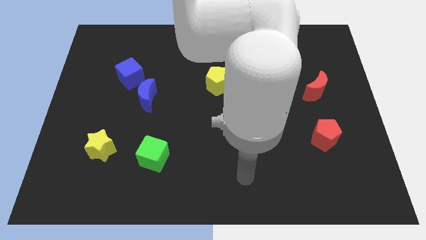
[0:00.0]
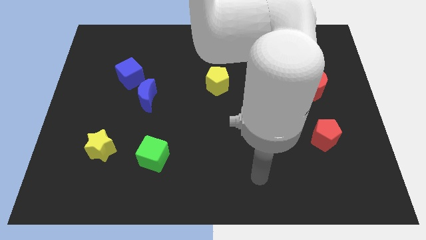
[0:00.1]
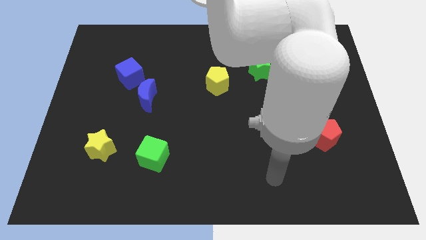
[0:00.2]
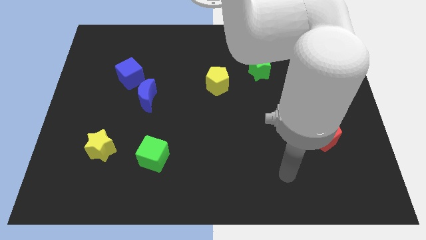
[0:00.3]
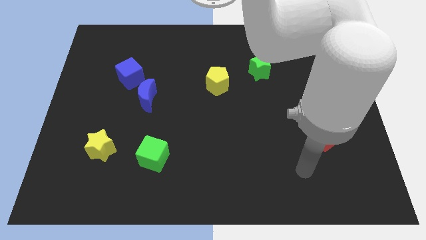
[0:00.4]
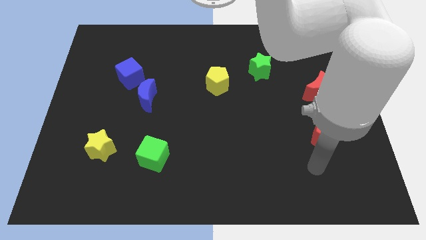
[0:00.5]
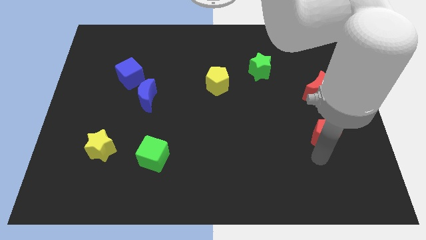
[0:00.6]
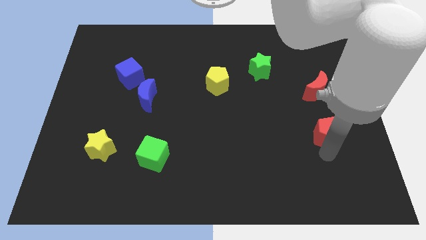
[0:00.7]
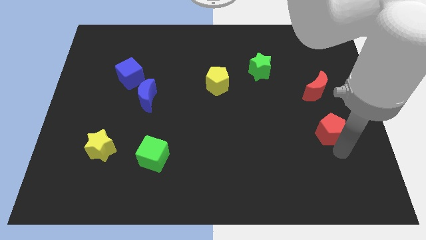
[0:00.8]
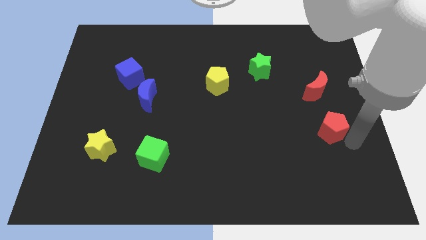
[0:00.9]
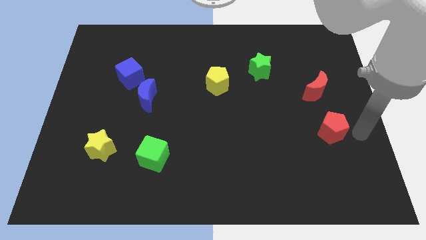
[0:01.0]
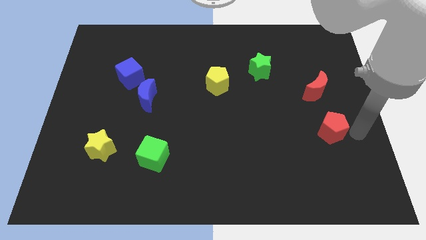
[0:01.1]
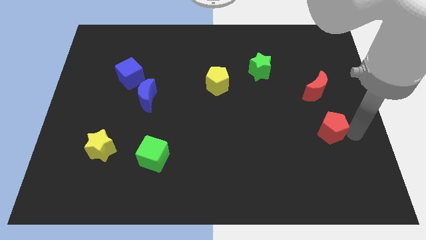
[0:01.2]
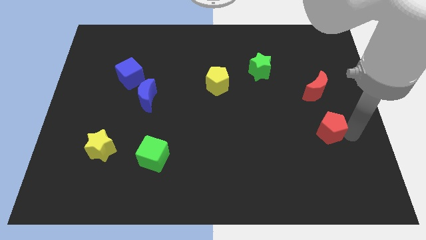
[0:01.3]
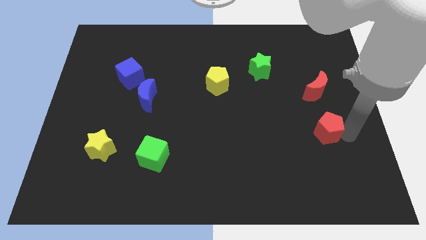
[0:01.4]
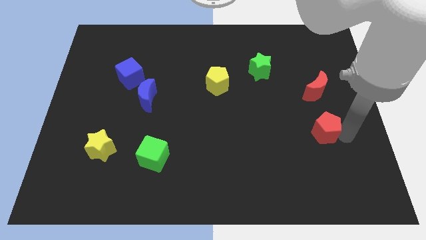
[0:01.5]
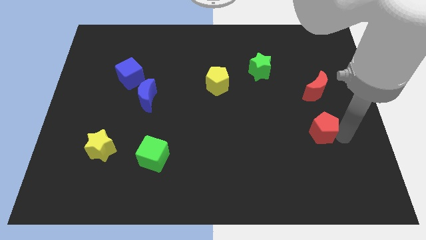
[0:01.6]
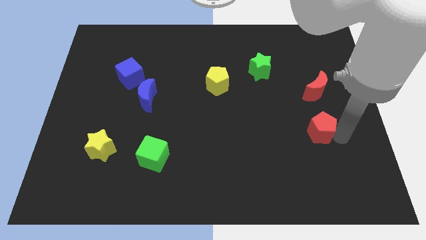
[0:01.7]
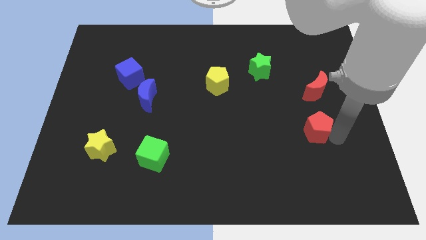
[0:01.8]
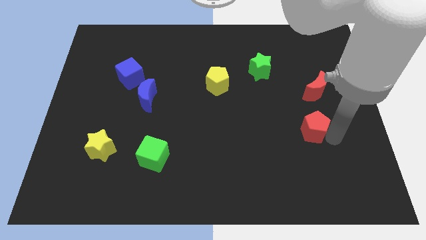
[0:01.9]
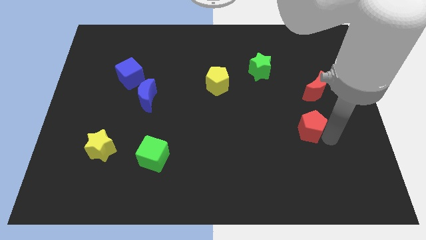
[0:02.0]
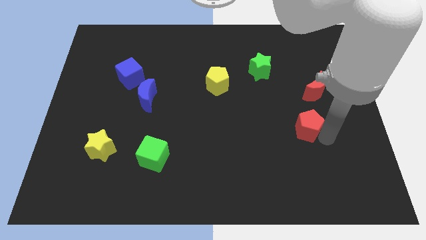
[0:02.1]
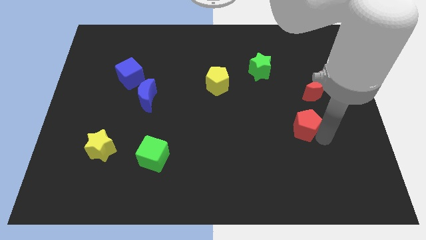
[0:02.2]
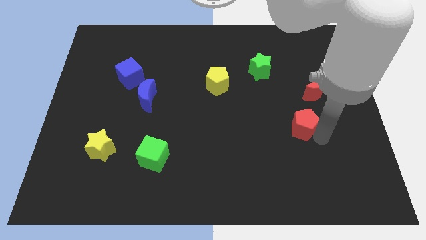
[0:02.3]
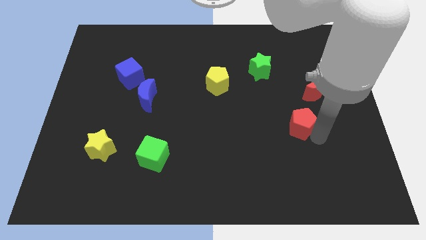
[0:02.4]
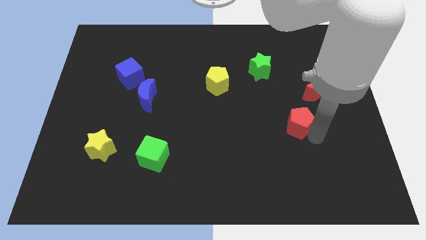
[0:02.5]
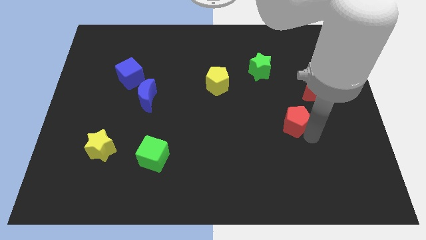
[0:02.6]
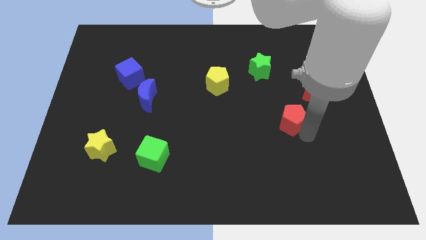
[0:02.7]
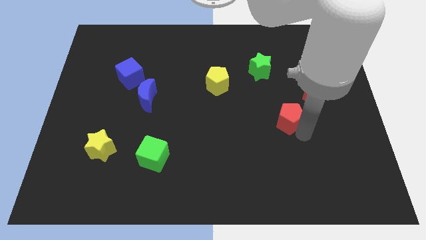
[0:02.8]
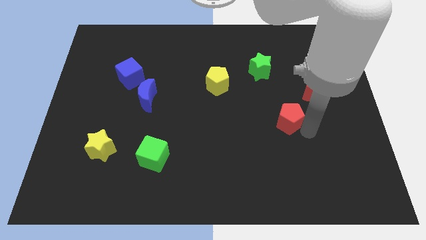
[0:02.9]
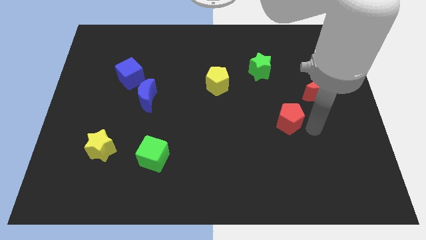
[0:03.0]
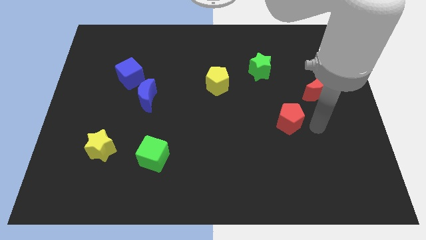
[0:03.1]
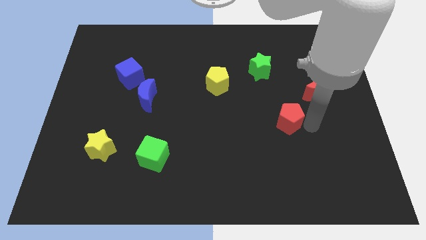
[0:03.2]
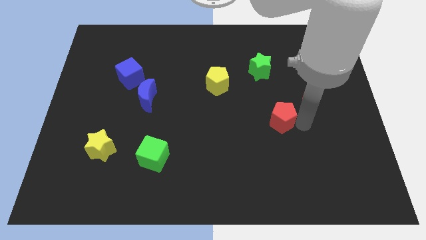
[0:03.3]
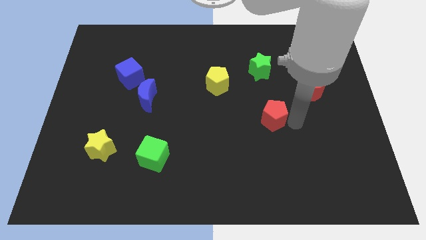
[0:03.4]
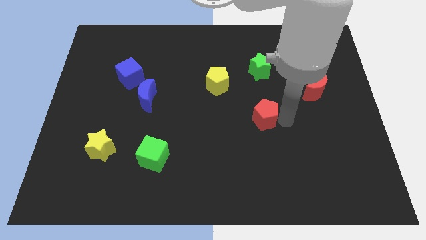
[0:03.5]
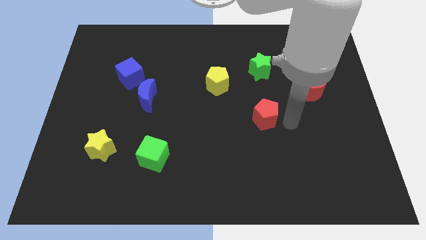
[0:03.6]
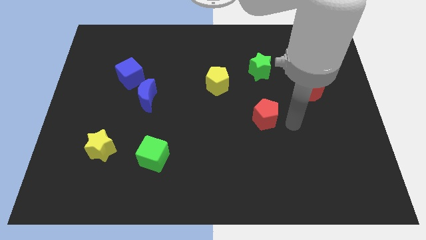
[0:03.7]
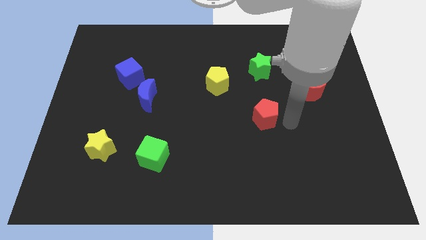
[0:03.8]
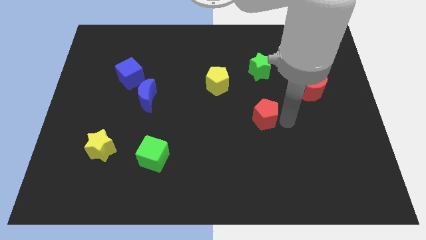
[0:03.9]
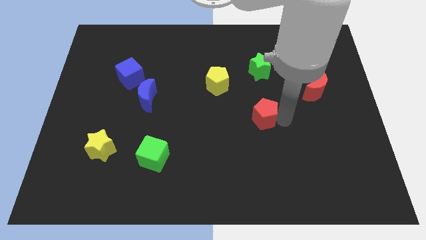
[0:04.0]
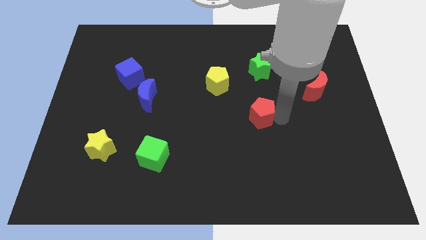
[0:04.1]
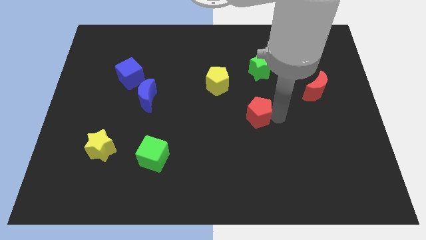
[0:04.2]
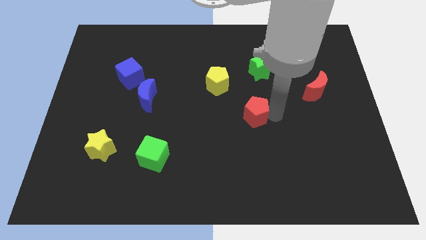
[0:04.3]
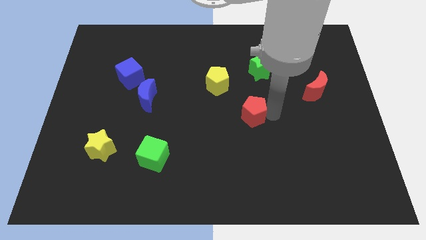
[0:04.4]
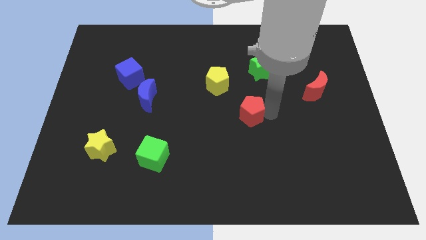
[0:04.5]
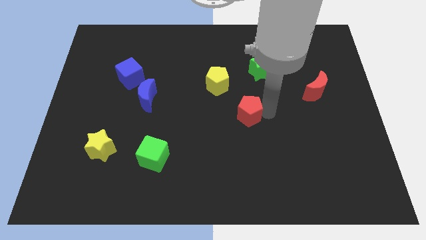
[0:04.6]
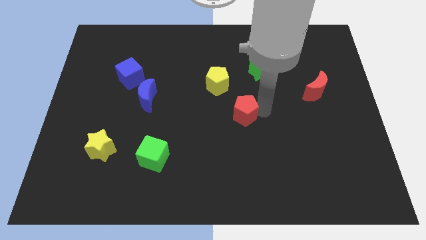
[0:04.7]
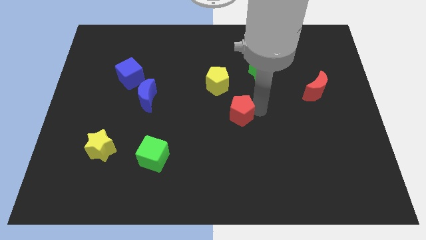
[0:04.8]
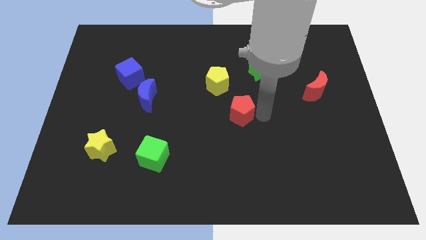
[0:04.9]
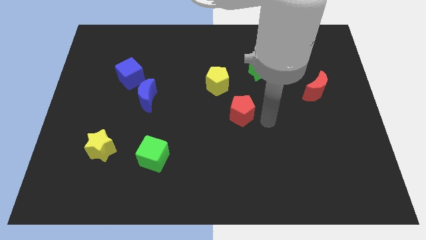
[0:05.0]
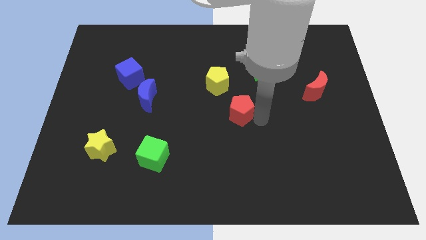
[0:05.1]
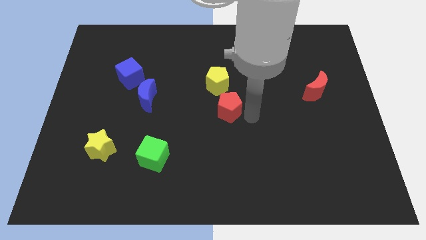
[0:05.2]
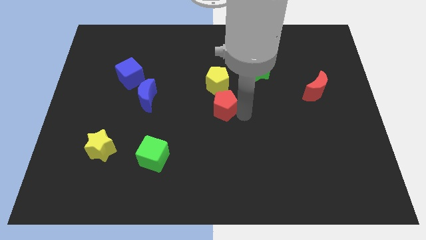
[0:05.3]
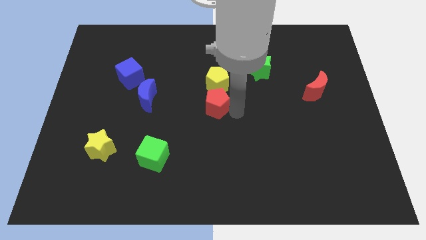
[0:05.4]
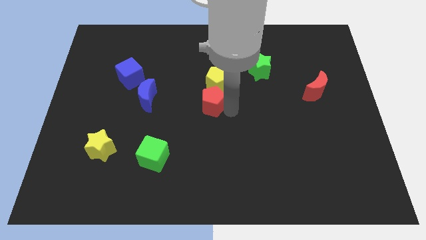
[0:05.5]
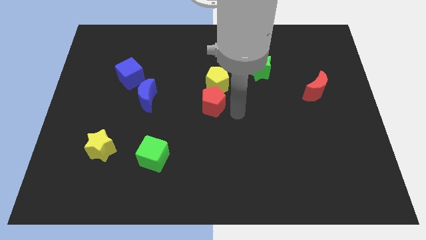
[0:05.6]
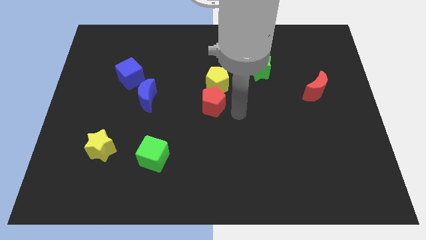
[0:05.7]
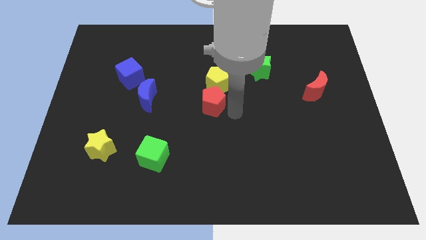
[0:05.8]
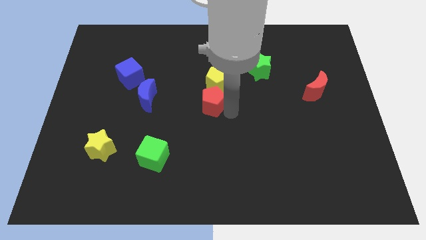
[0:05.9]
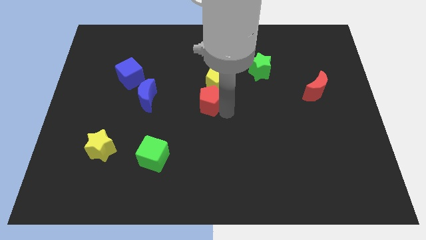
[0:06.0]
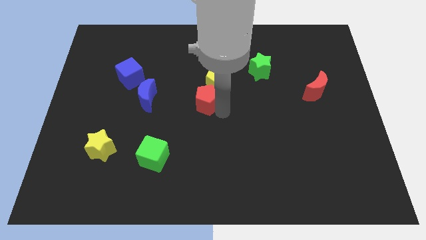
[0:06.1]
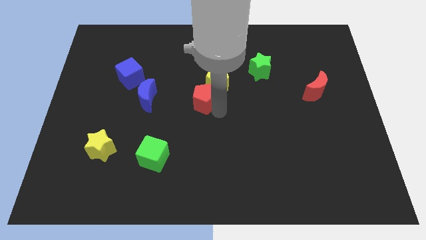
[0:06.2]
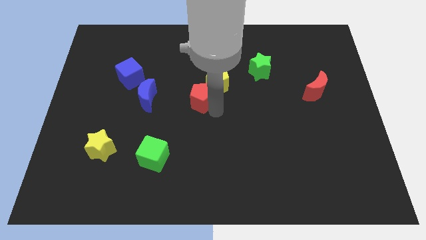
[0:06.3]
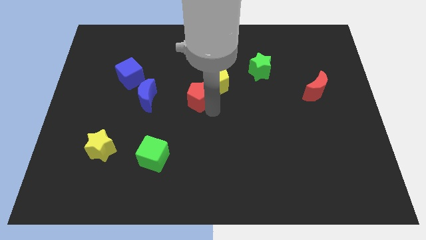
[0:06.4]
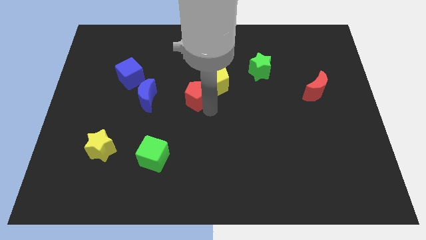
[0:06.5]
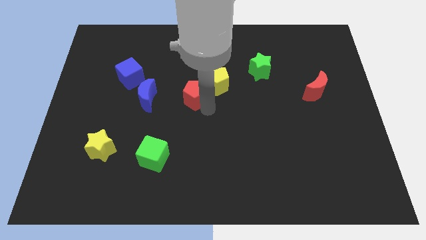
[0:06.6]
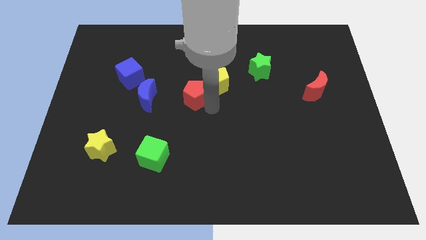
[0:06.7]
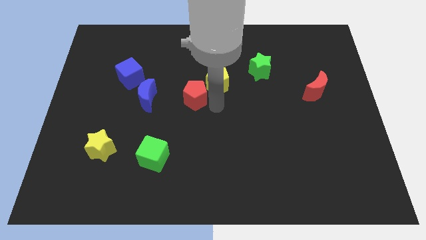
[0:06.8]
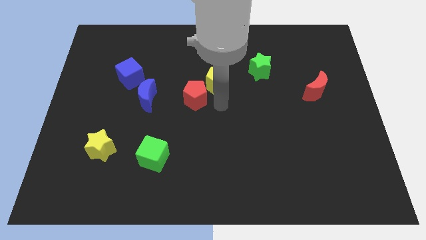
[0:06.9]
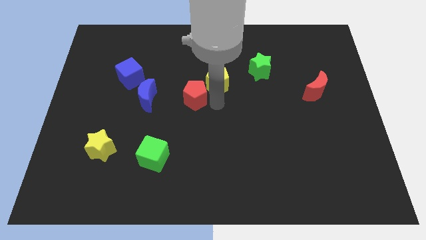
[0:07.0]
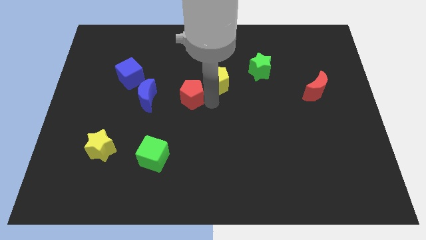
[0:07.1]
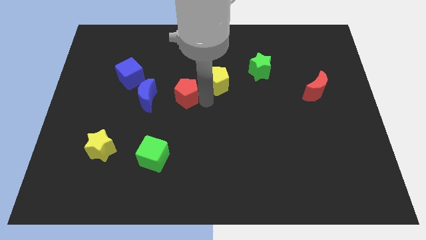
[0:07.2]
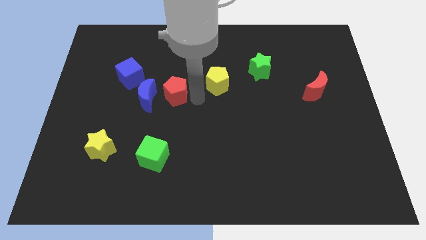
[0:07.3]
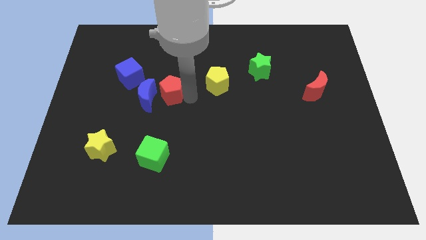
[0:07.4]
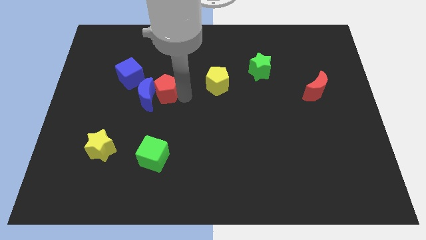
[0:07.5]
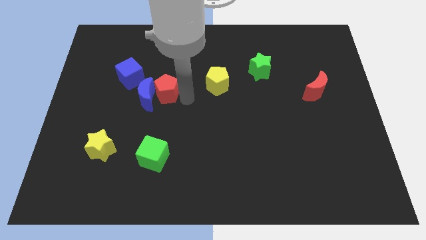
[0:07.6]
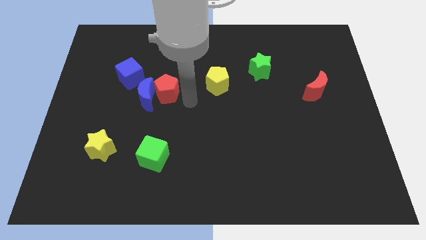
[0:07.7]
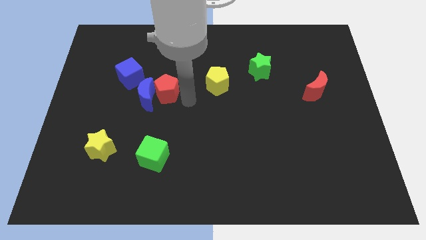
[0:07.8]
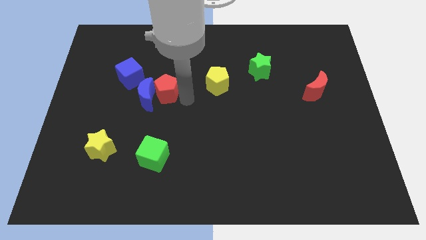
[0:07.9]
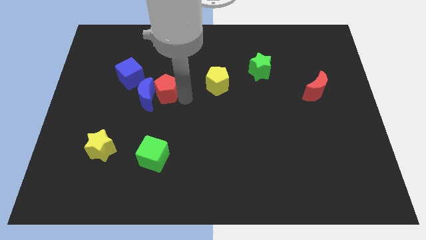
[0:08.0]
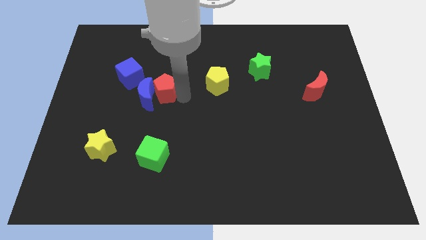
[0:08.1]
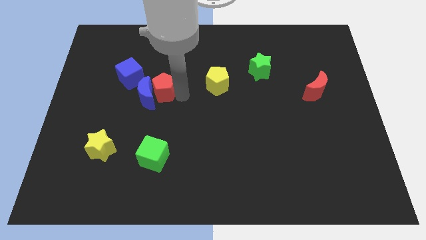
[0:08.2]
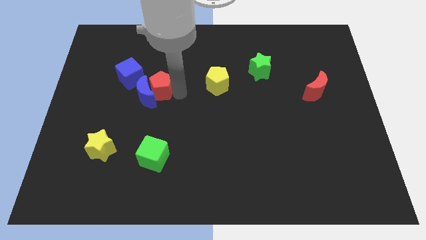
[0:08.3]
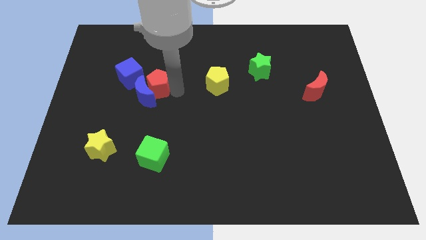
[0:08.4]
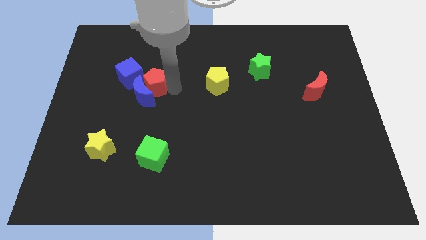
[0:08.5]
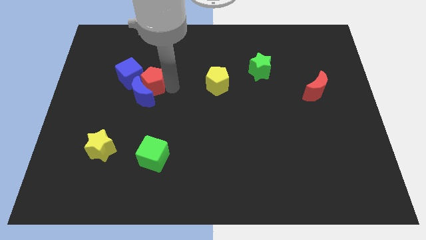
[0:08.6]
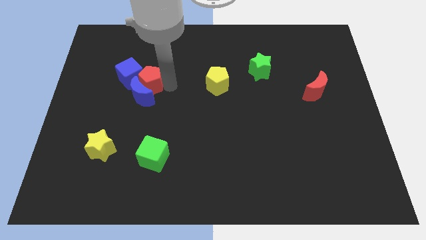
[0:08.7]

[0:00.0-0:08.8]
push the red pentagon towards the blue cube
